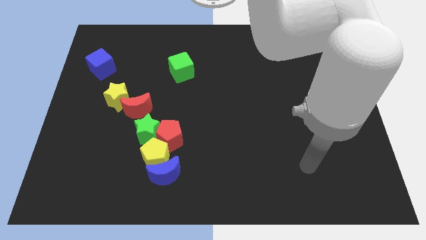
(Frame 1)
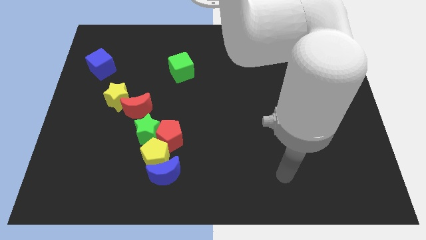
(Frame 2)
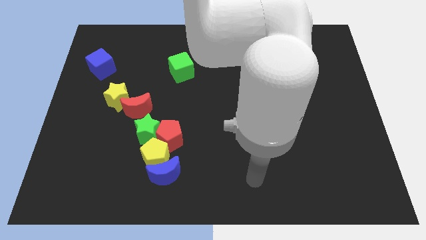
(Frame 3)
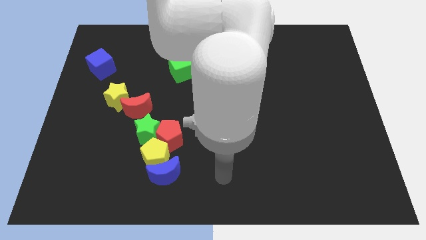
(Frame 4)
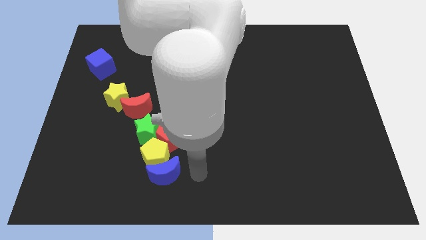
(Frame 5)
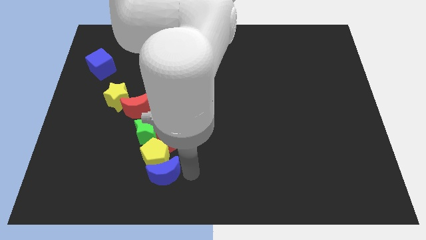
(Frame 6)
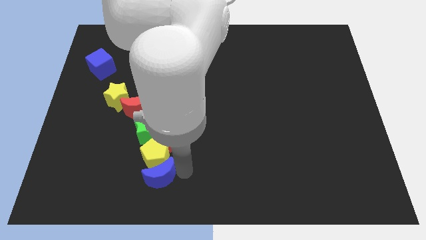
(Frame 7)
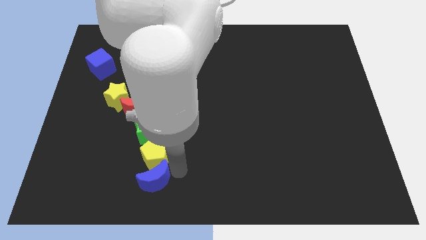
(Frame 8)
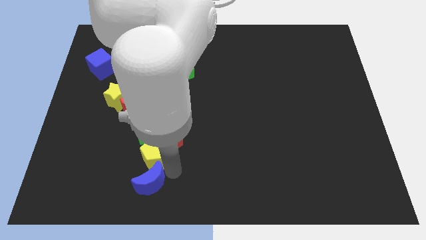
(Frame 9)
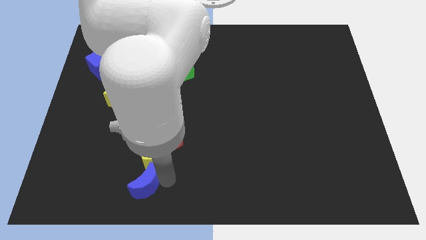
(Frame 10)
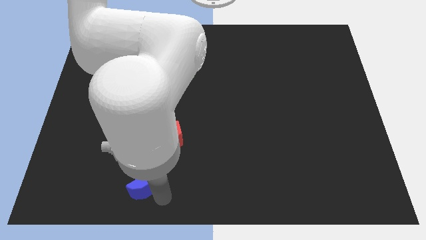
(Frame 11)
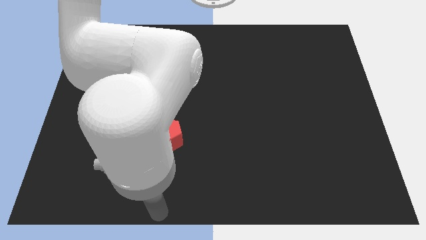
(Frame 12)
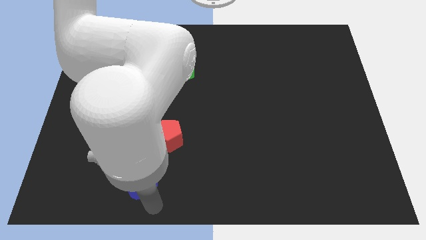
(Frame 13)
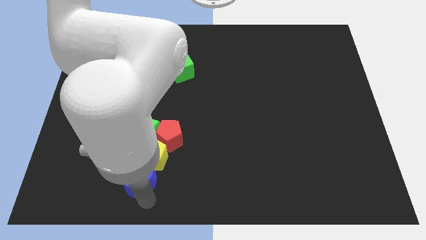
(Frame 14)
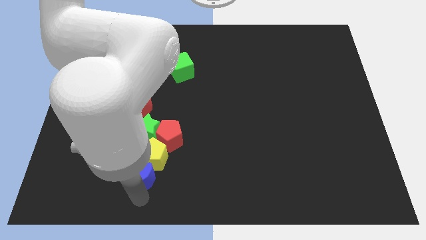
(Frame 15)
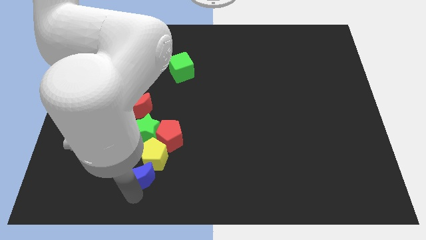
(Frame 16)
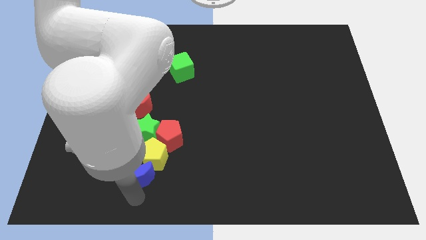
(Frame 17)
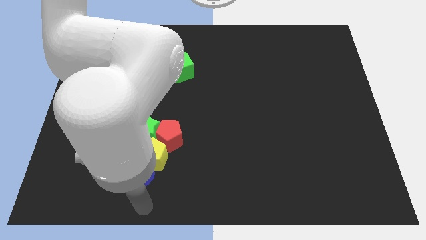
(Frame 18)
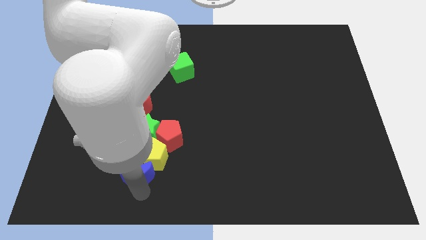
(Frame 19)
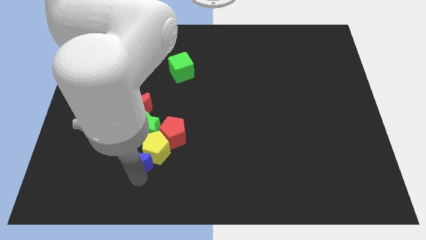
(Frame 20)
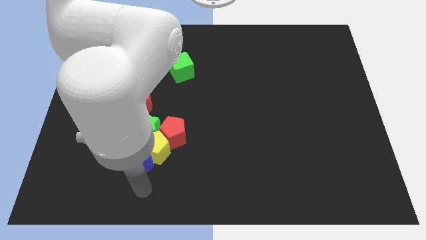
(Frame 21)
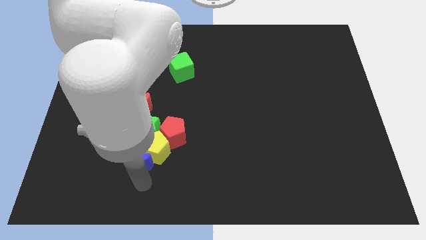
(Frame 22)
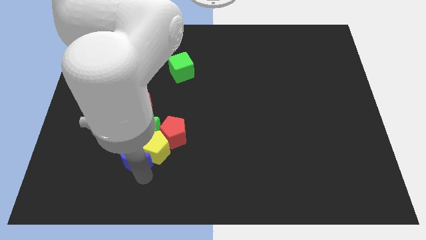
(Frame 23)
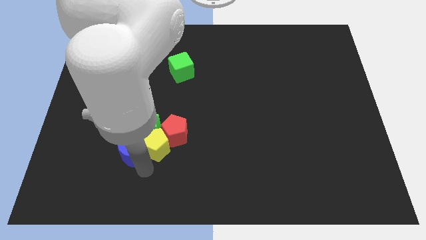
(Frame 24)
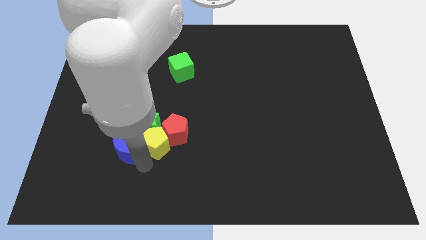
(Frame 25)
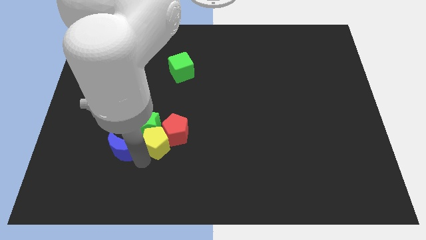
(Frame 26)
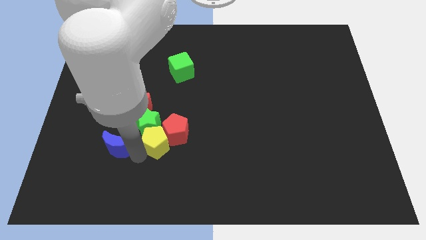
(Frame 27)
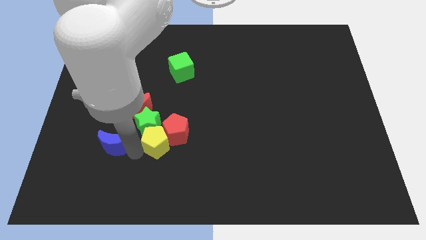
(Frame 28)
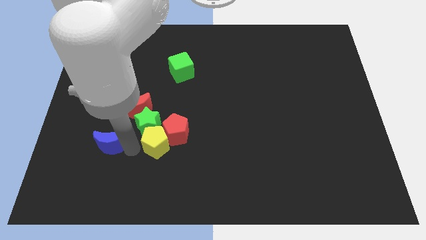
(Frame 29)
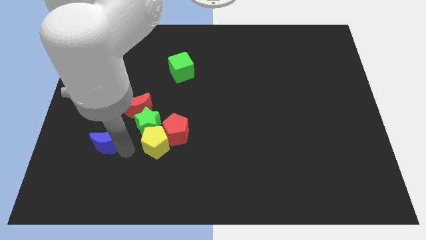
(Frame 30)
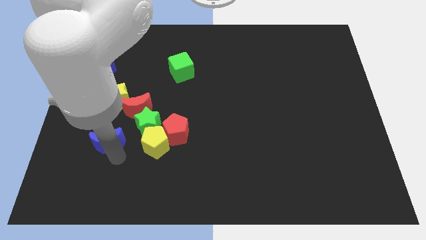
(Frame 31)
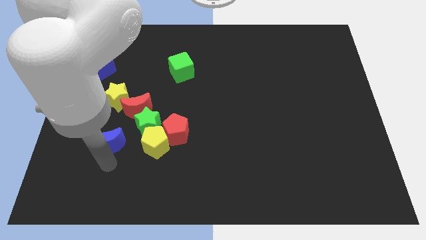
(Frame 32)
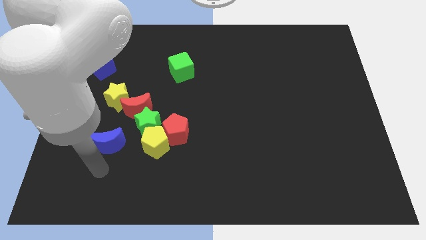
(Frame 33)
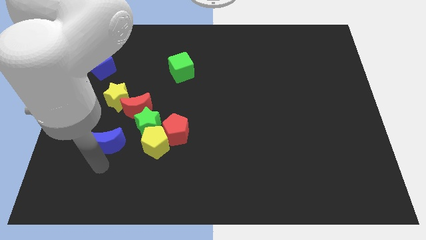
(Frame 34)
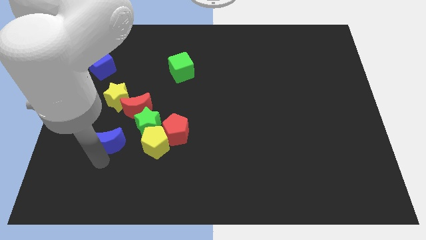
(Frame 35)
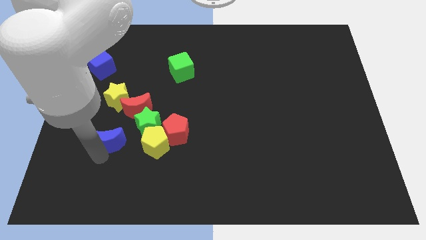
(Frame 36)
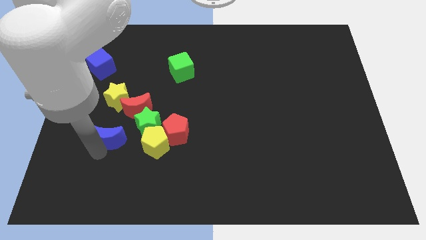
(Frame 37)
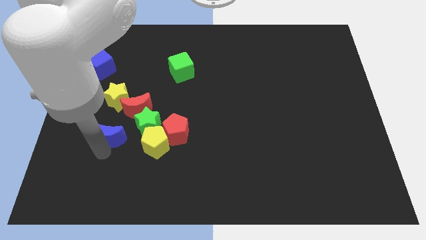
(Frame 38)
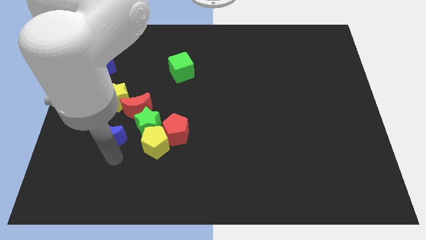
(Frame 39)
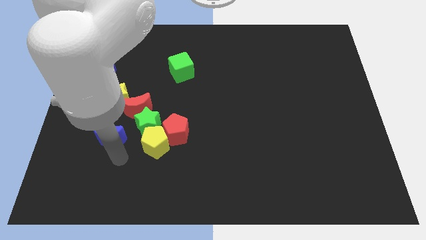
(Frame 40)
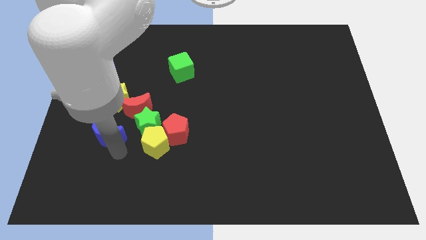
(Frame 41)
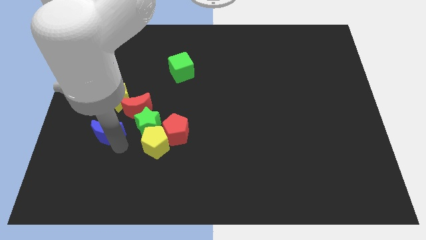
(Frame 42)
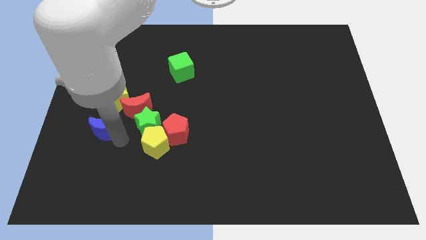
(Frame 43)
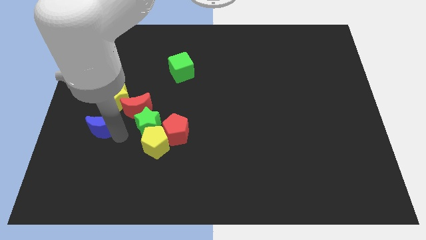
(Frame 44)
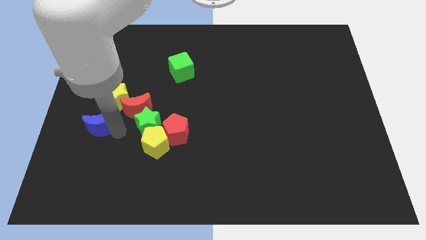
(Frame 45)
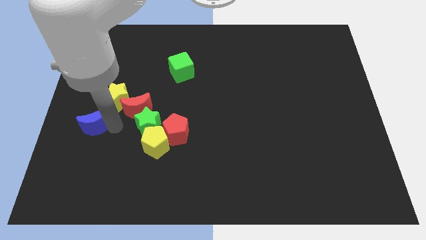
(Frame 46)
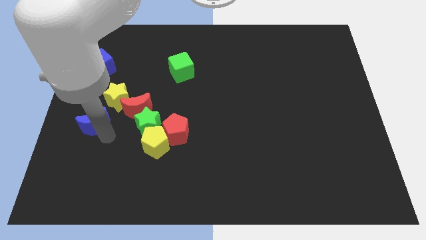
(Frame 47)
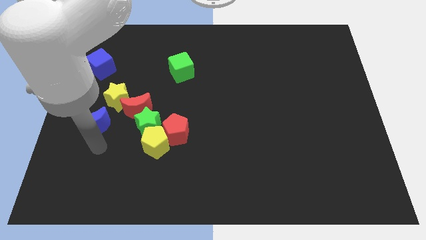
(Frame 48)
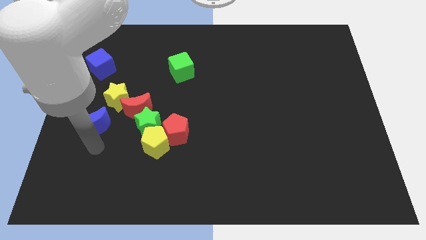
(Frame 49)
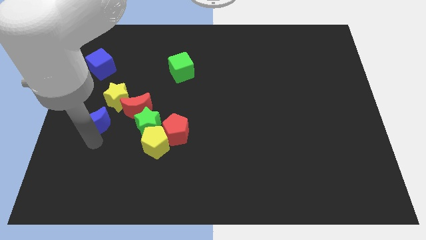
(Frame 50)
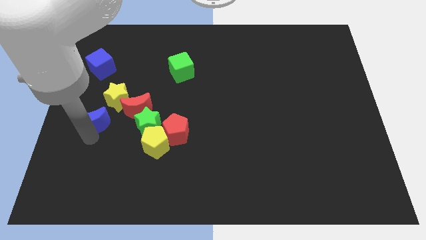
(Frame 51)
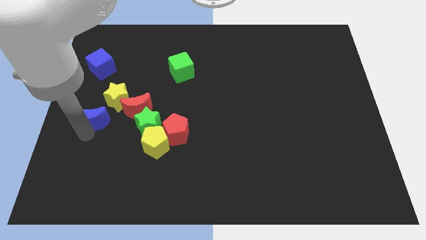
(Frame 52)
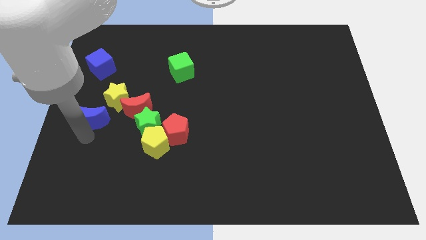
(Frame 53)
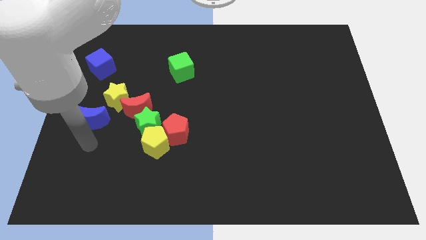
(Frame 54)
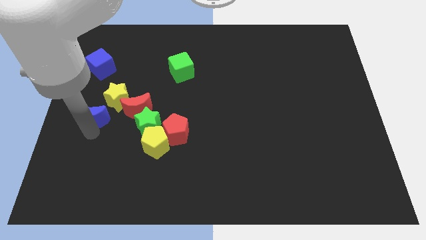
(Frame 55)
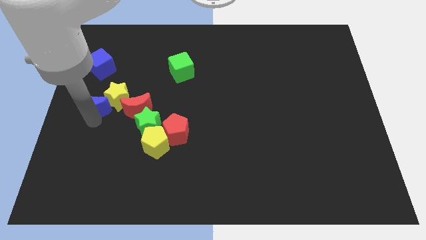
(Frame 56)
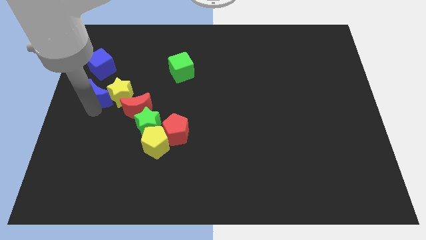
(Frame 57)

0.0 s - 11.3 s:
slide the blue moon to the top left of the red moon

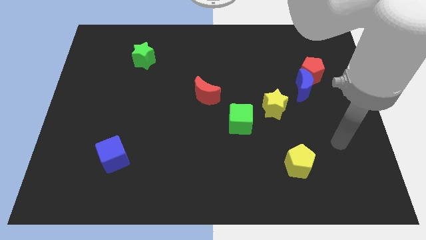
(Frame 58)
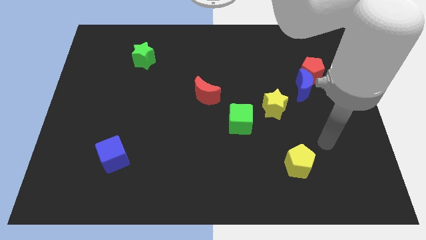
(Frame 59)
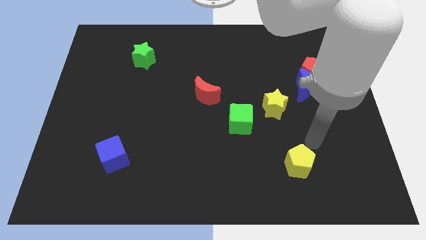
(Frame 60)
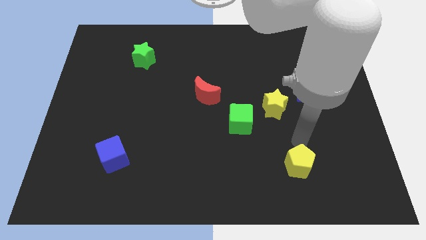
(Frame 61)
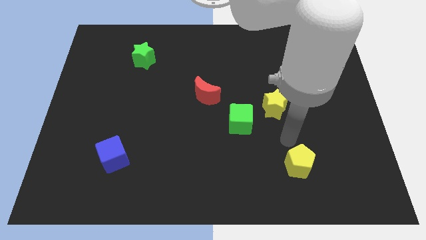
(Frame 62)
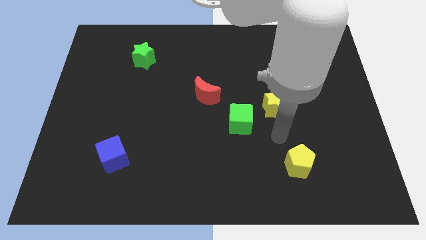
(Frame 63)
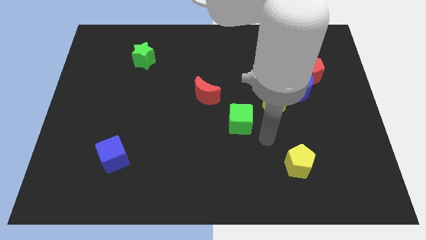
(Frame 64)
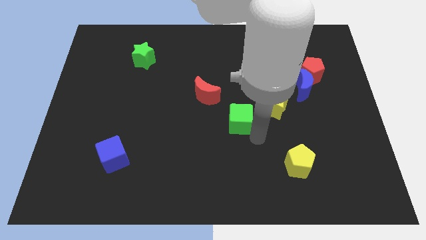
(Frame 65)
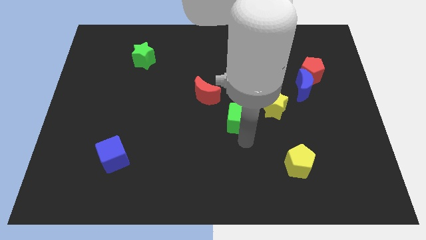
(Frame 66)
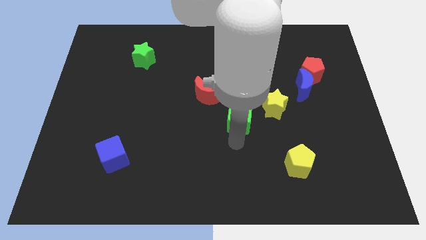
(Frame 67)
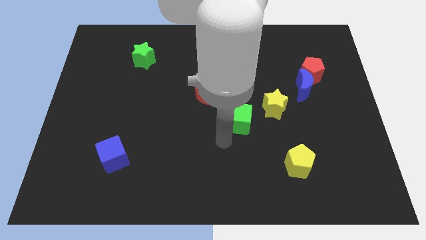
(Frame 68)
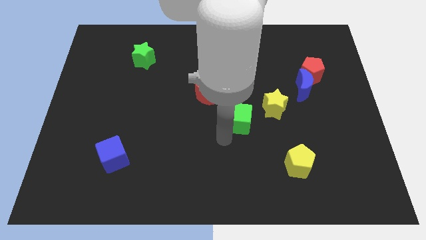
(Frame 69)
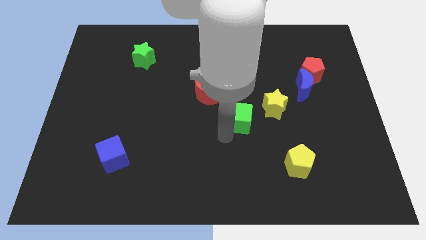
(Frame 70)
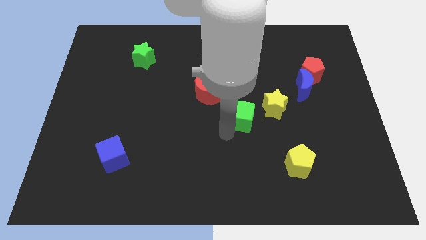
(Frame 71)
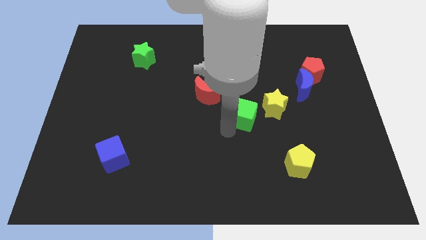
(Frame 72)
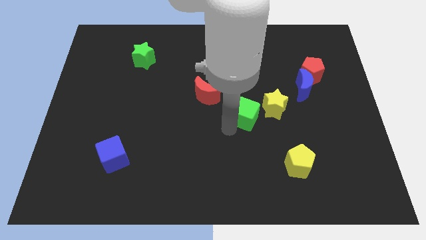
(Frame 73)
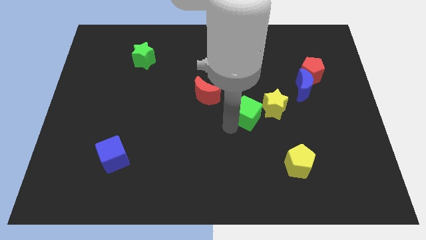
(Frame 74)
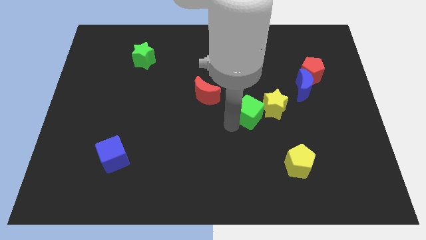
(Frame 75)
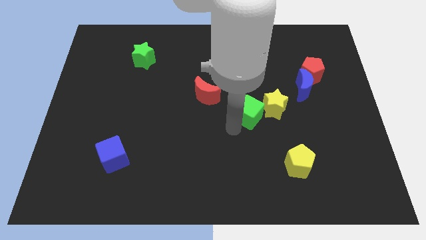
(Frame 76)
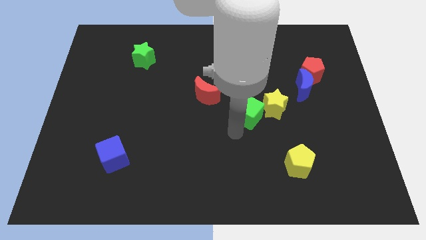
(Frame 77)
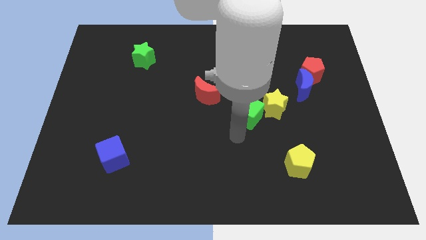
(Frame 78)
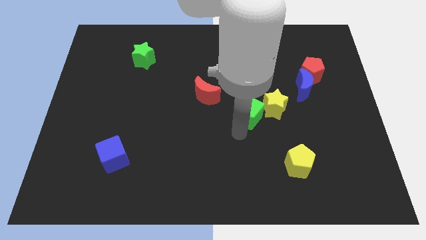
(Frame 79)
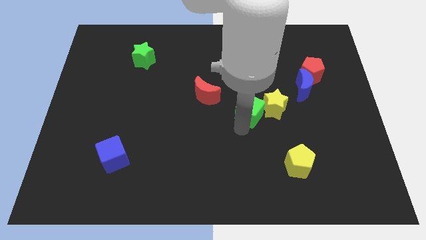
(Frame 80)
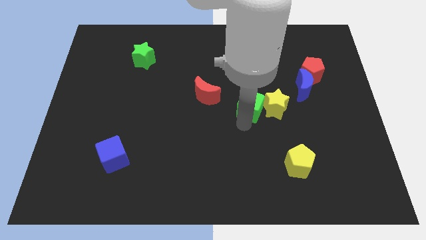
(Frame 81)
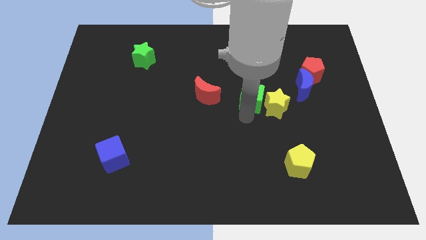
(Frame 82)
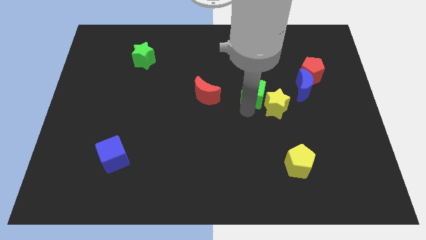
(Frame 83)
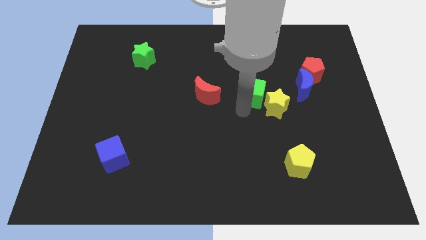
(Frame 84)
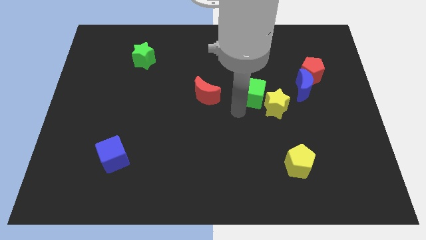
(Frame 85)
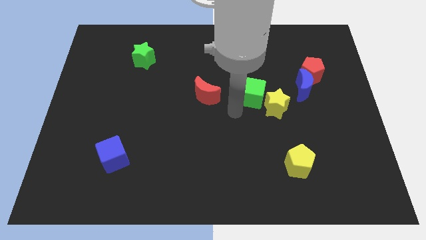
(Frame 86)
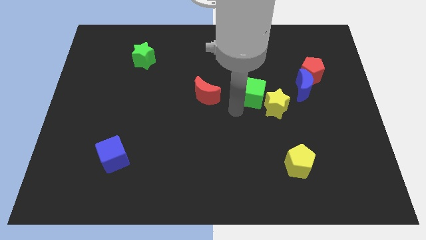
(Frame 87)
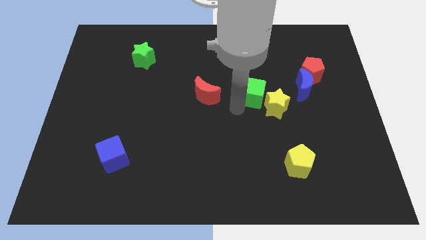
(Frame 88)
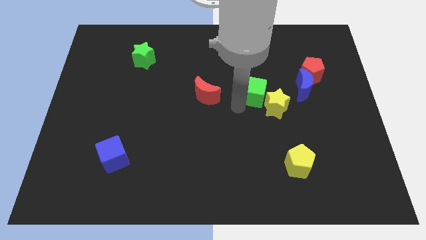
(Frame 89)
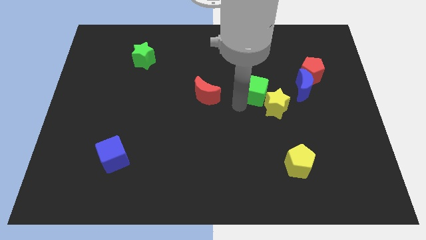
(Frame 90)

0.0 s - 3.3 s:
move the green cube above the yellow star
